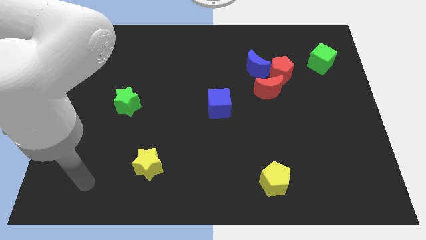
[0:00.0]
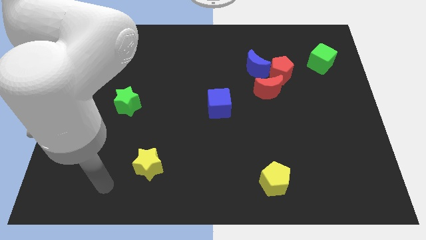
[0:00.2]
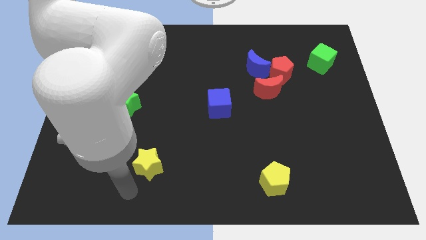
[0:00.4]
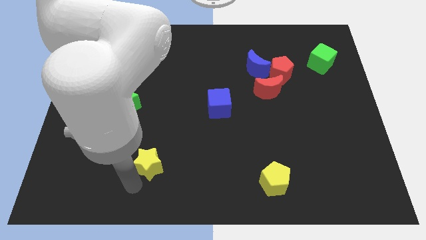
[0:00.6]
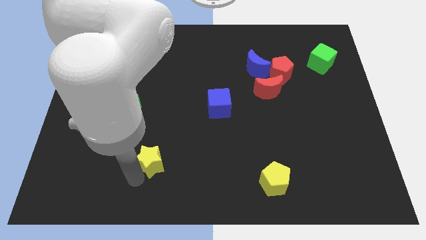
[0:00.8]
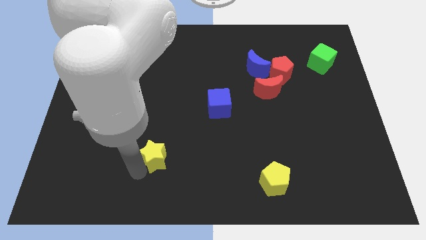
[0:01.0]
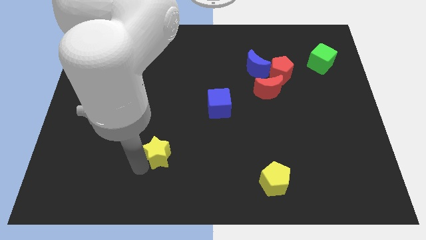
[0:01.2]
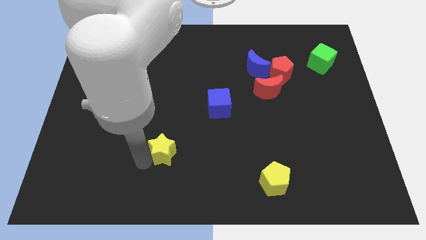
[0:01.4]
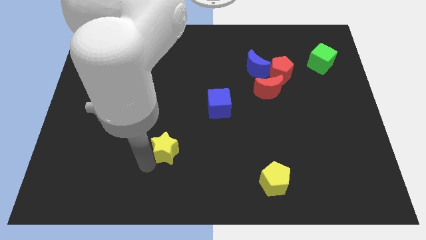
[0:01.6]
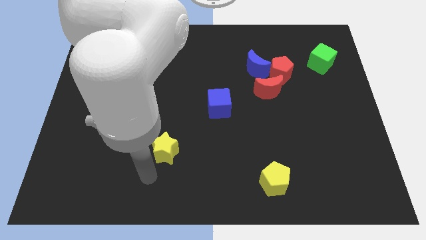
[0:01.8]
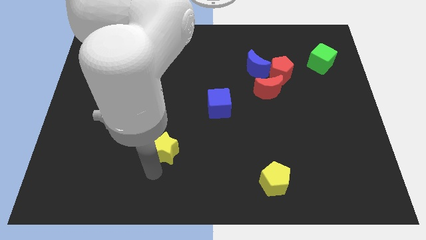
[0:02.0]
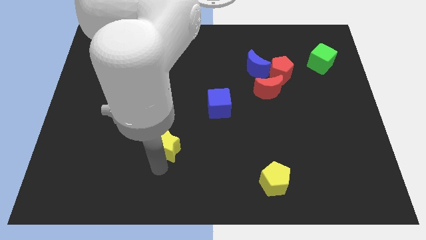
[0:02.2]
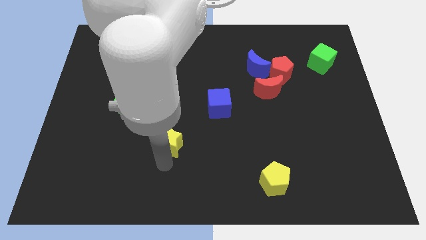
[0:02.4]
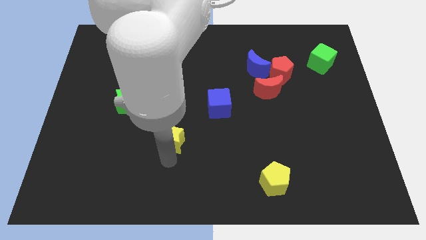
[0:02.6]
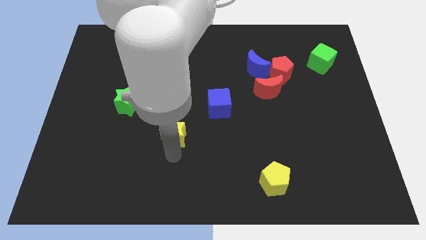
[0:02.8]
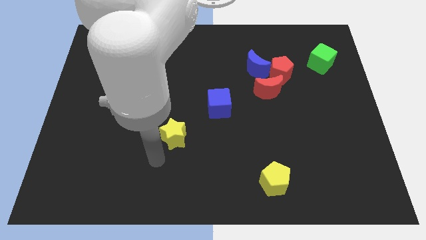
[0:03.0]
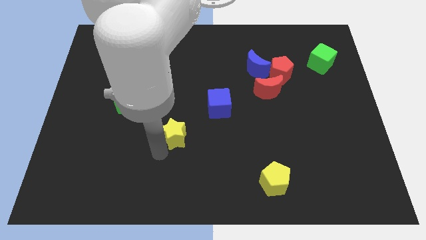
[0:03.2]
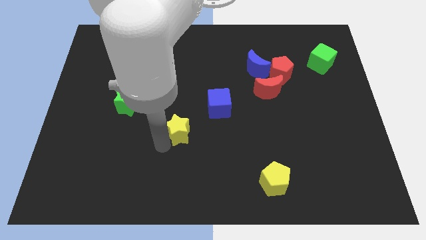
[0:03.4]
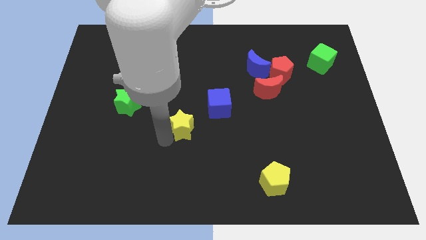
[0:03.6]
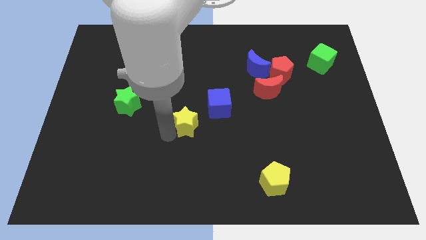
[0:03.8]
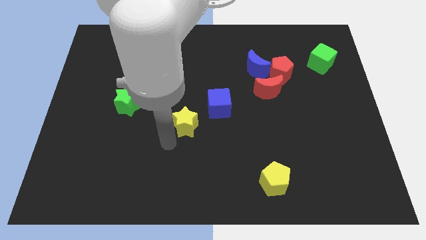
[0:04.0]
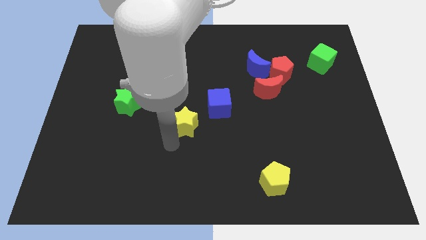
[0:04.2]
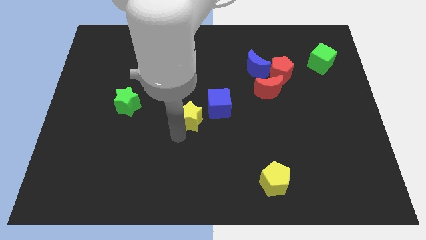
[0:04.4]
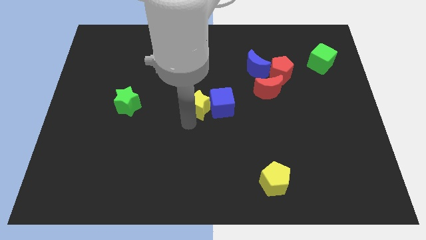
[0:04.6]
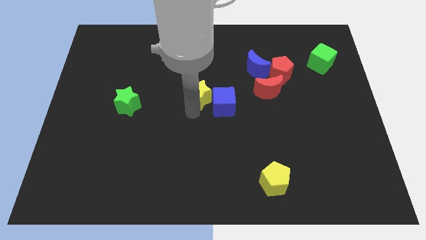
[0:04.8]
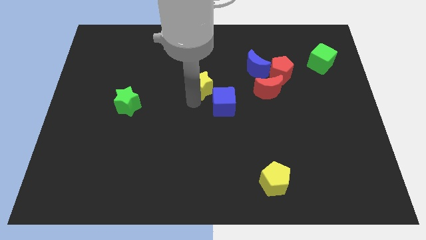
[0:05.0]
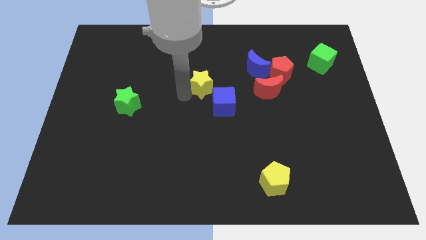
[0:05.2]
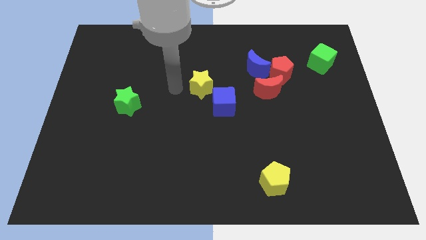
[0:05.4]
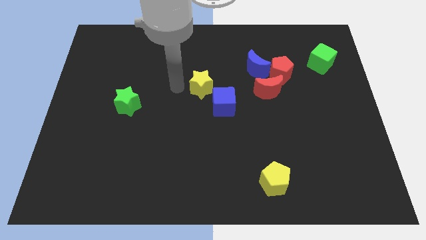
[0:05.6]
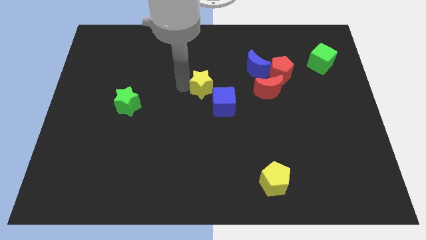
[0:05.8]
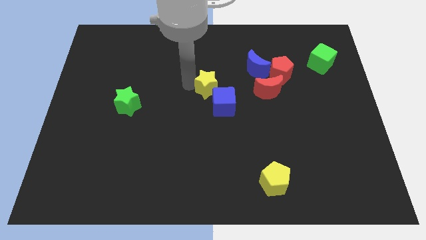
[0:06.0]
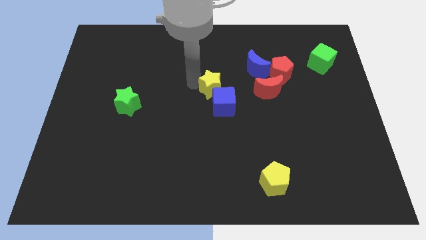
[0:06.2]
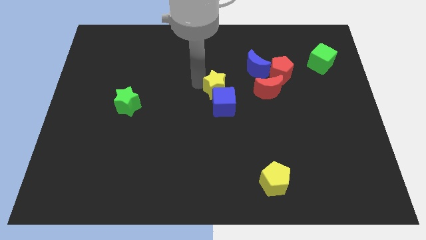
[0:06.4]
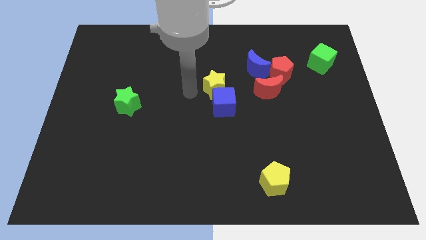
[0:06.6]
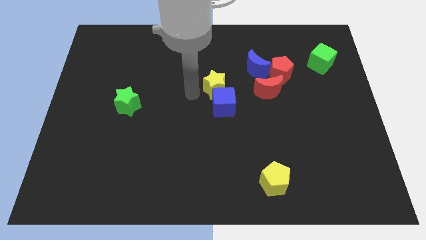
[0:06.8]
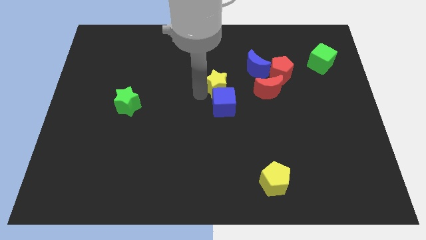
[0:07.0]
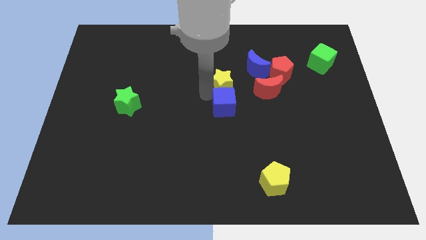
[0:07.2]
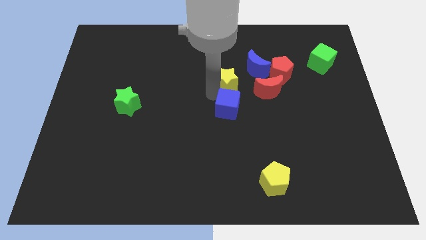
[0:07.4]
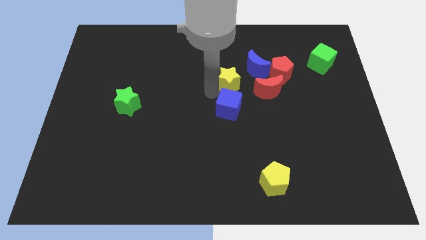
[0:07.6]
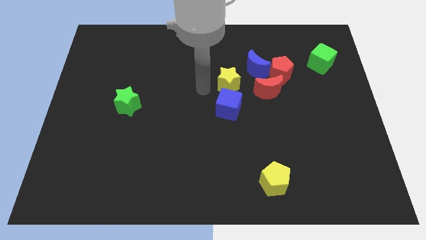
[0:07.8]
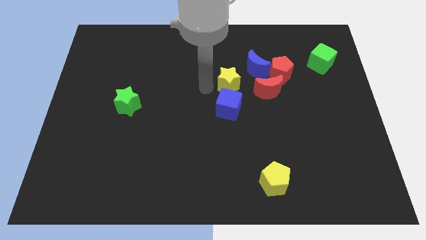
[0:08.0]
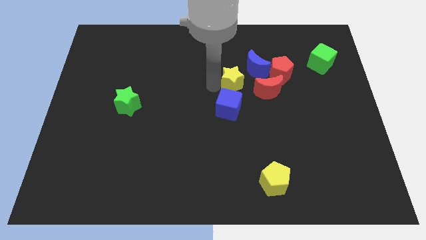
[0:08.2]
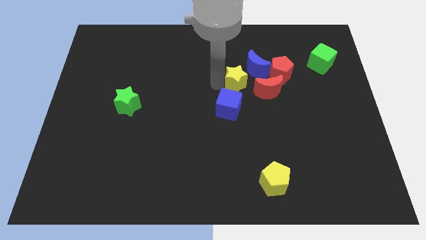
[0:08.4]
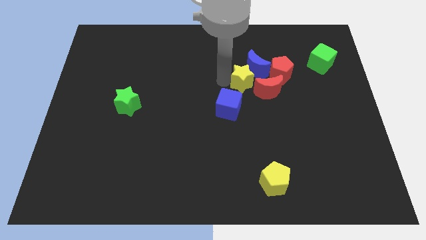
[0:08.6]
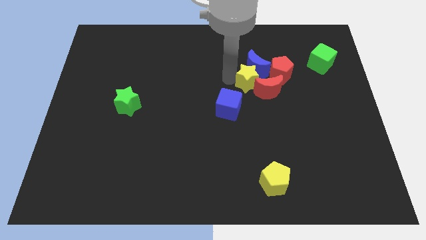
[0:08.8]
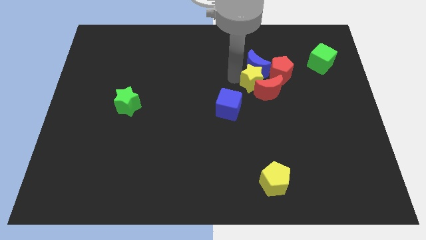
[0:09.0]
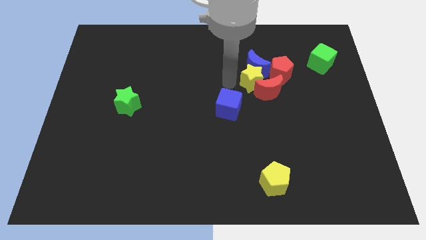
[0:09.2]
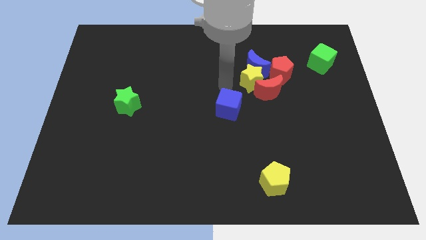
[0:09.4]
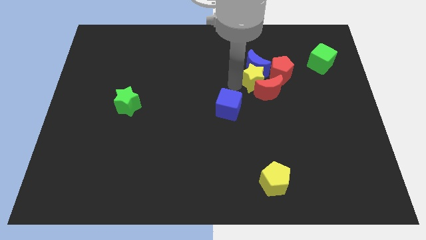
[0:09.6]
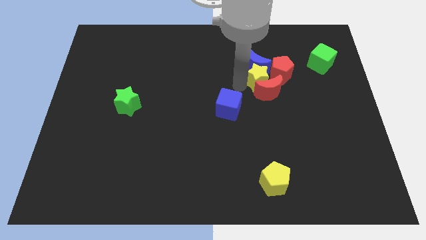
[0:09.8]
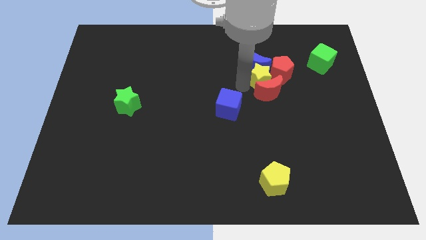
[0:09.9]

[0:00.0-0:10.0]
slide the yellow star next to the red pentagon

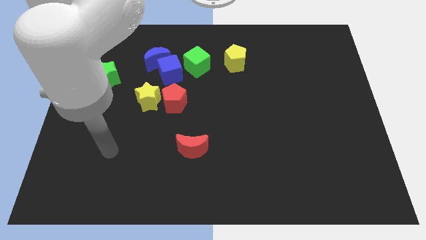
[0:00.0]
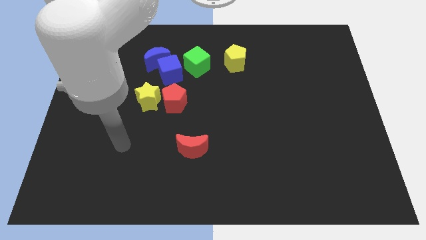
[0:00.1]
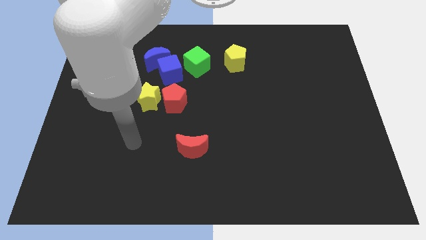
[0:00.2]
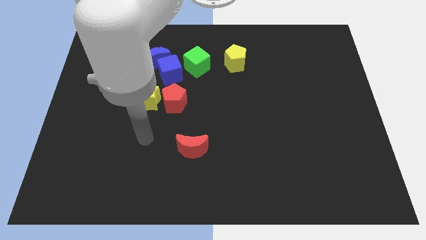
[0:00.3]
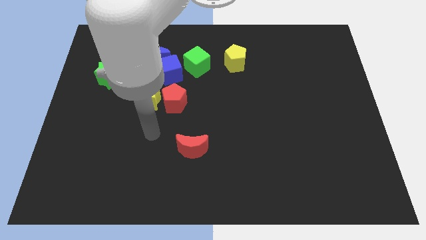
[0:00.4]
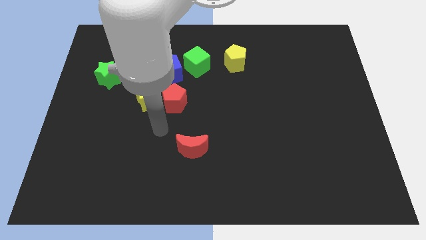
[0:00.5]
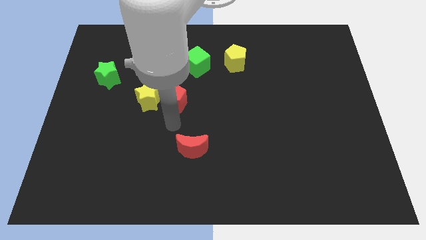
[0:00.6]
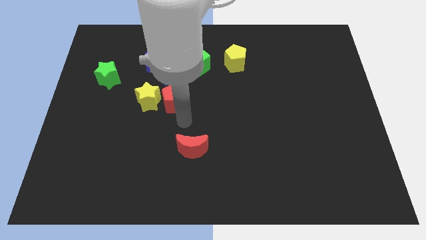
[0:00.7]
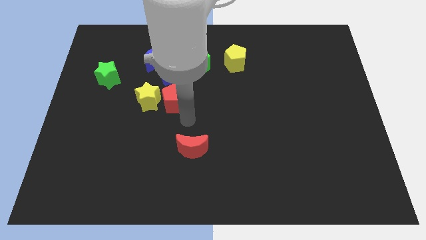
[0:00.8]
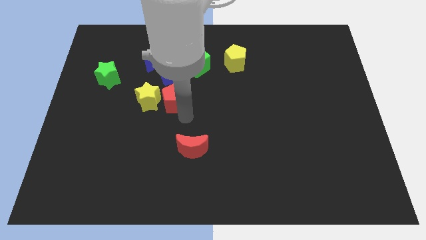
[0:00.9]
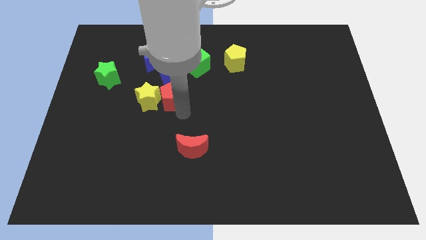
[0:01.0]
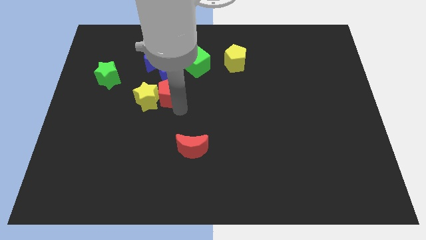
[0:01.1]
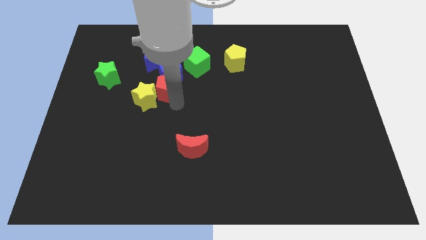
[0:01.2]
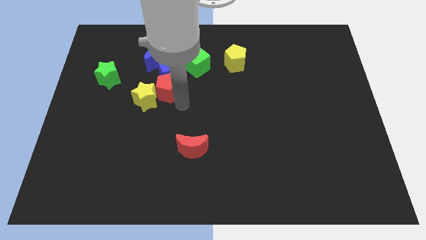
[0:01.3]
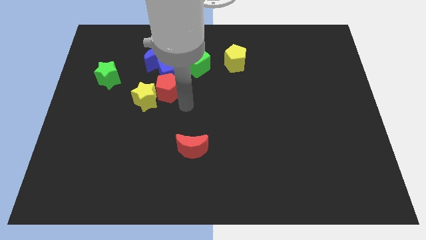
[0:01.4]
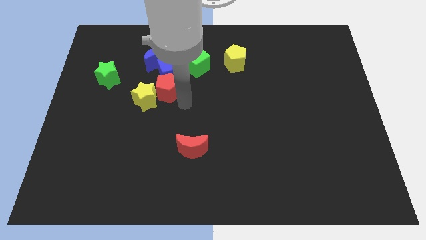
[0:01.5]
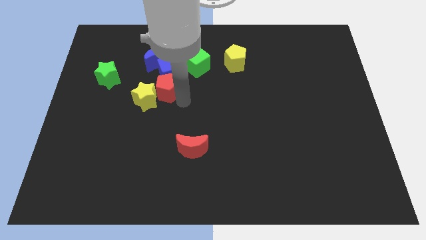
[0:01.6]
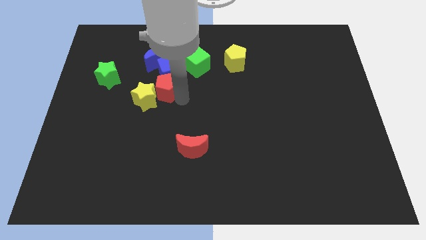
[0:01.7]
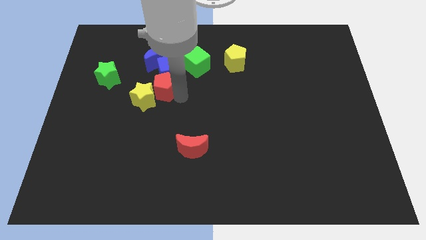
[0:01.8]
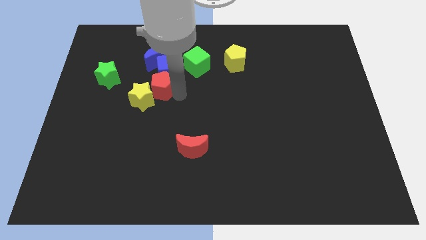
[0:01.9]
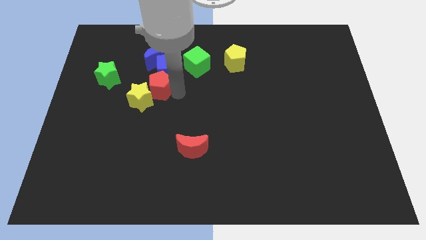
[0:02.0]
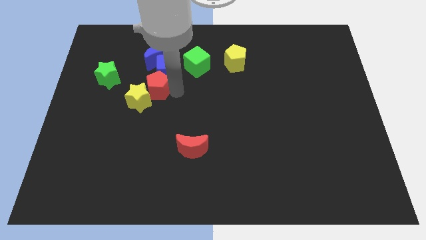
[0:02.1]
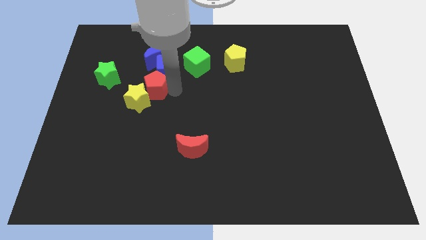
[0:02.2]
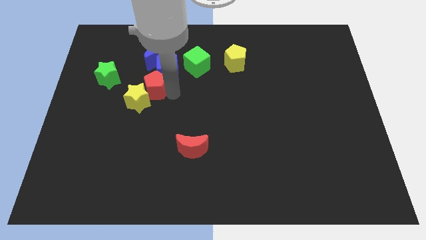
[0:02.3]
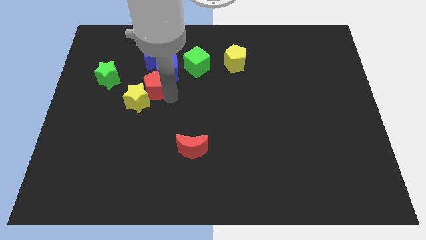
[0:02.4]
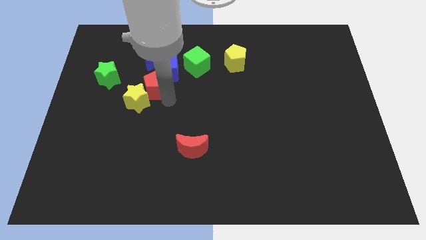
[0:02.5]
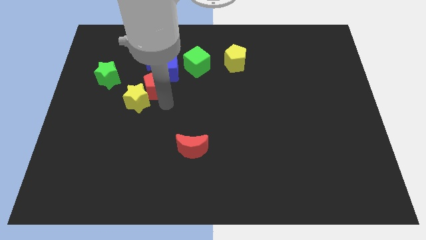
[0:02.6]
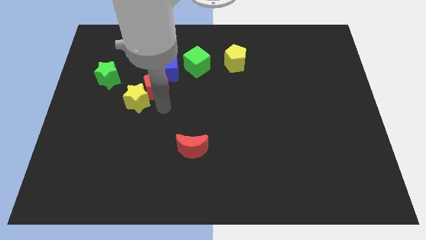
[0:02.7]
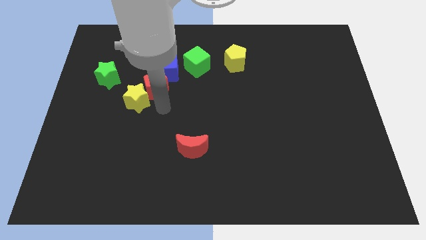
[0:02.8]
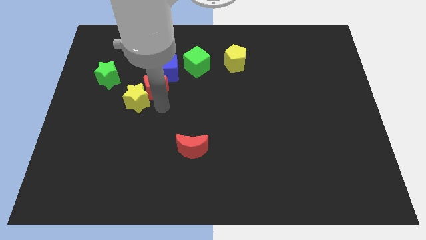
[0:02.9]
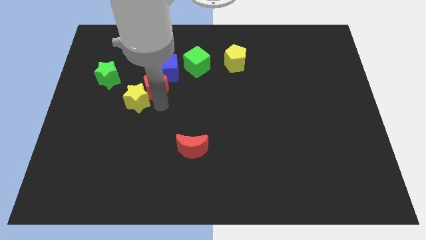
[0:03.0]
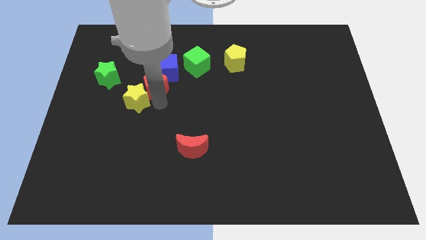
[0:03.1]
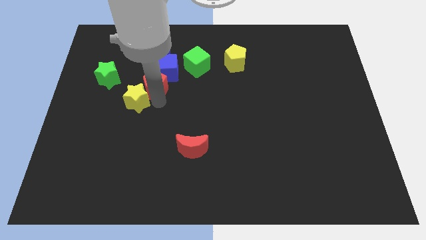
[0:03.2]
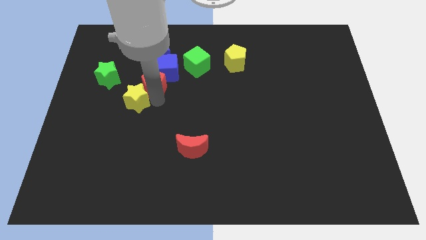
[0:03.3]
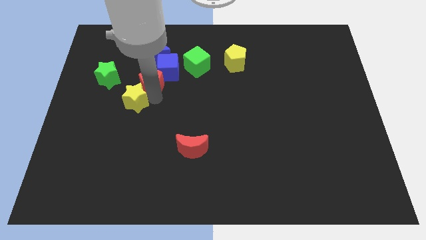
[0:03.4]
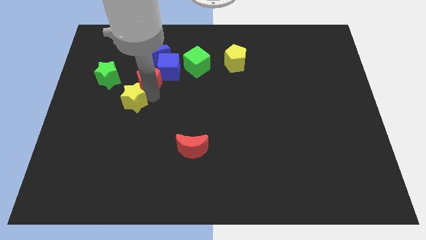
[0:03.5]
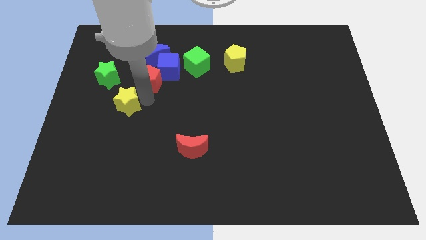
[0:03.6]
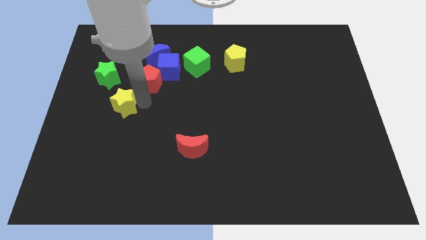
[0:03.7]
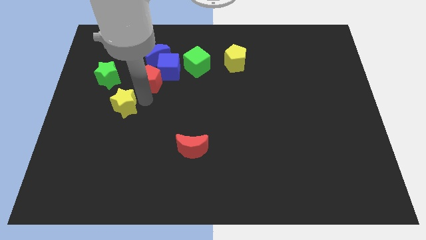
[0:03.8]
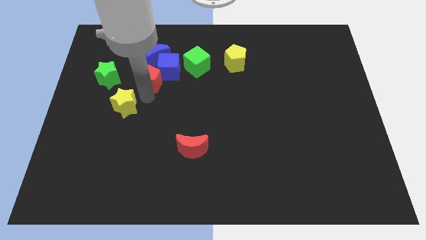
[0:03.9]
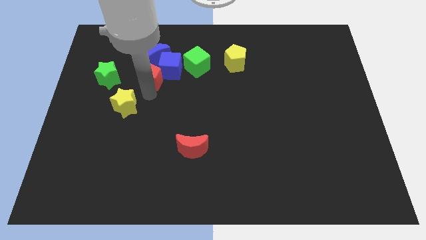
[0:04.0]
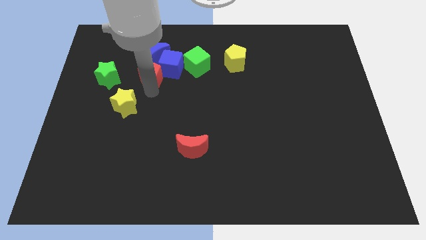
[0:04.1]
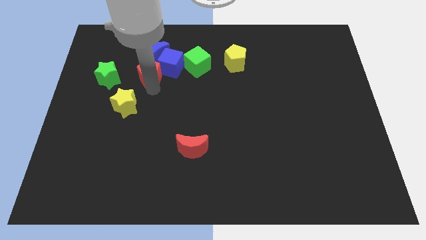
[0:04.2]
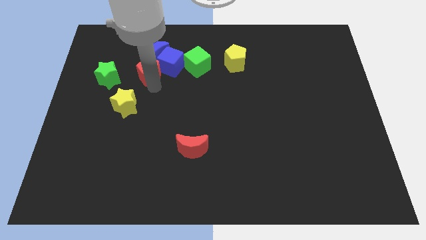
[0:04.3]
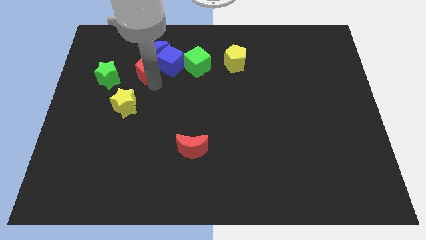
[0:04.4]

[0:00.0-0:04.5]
slide the red pentagon close to the blue moon
